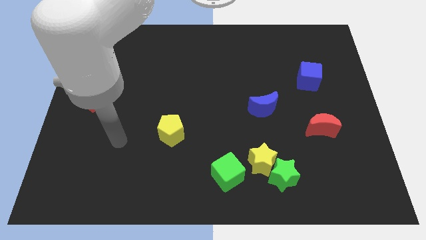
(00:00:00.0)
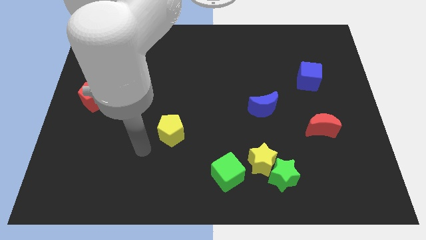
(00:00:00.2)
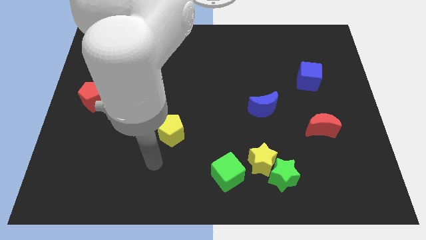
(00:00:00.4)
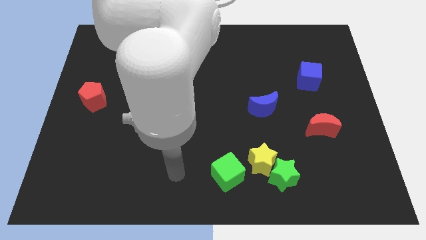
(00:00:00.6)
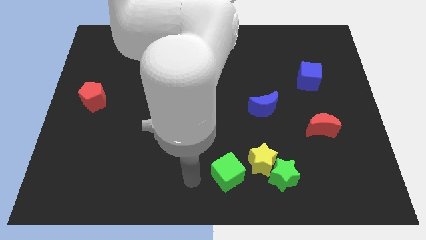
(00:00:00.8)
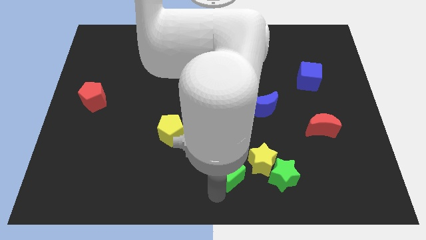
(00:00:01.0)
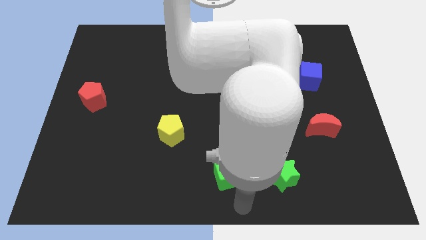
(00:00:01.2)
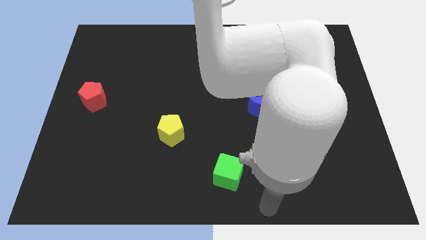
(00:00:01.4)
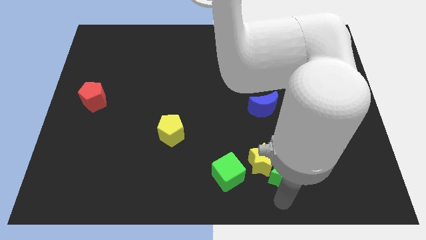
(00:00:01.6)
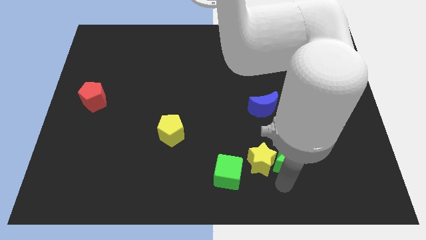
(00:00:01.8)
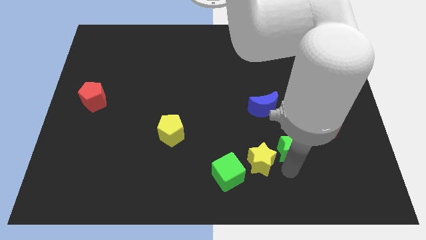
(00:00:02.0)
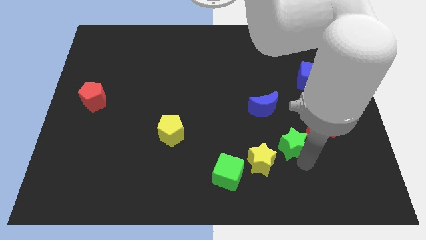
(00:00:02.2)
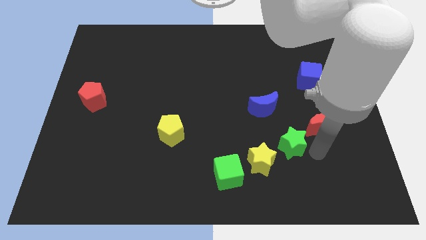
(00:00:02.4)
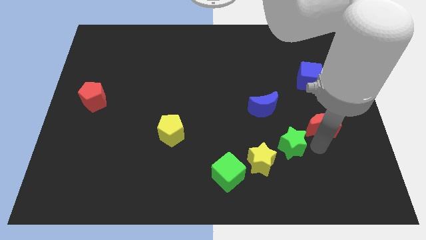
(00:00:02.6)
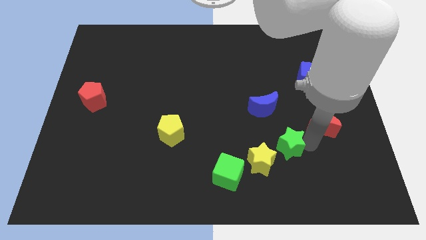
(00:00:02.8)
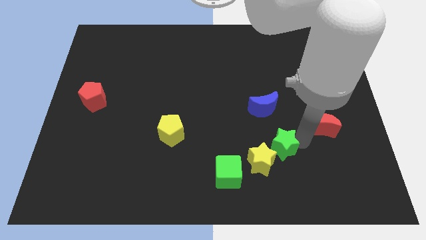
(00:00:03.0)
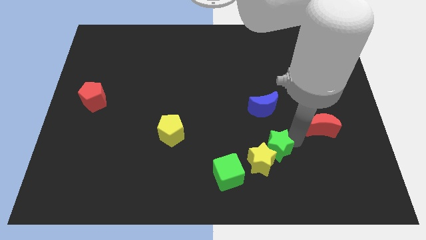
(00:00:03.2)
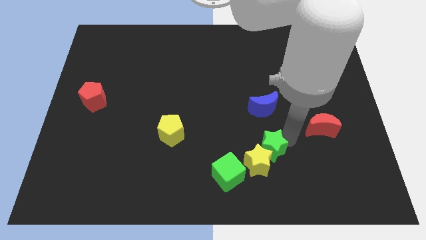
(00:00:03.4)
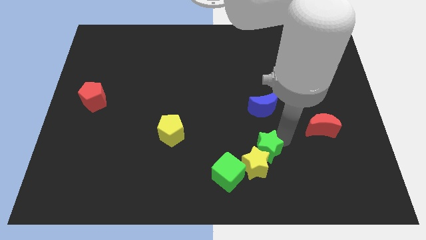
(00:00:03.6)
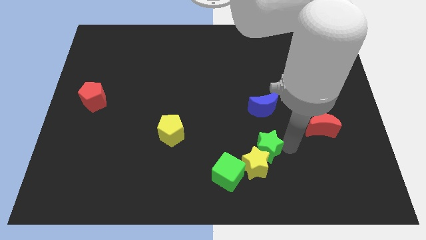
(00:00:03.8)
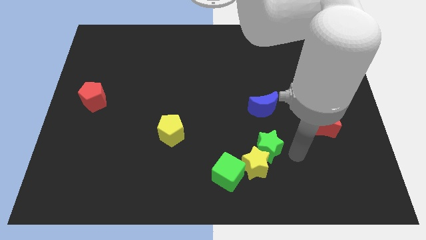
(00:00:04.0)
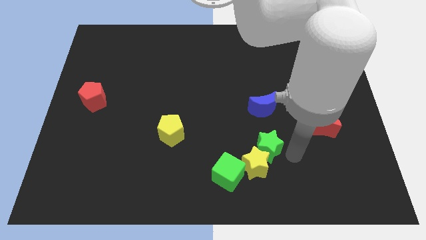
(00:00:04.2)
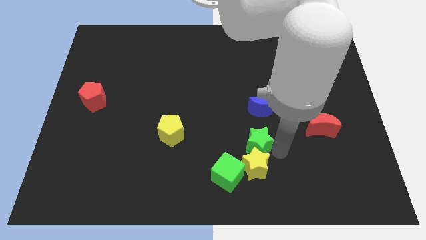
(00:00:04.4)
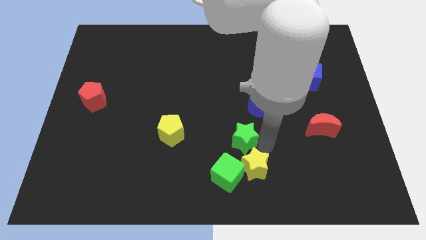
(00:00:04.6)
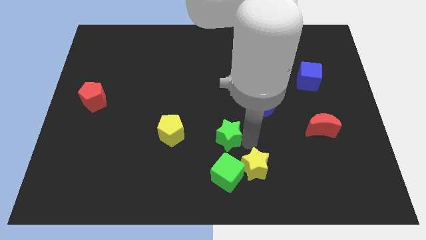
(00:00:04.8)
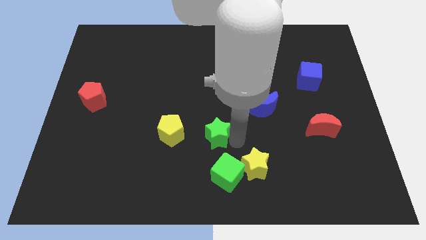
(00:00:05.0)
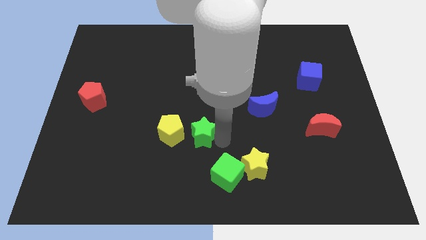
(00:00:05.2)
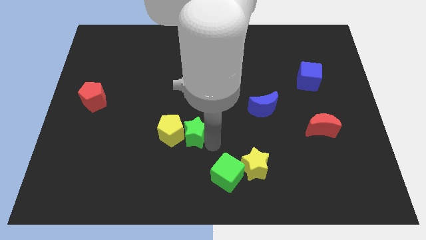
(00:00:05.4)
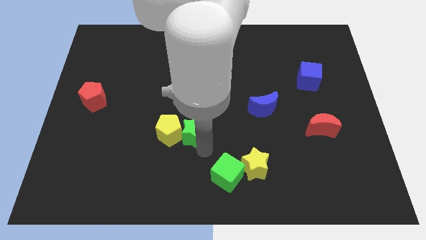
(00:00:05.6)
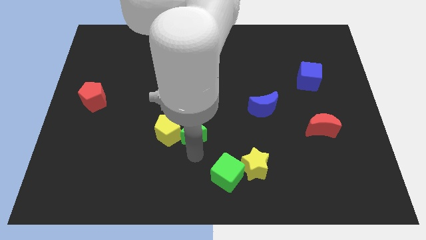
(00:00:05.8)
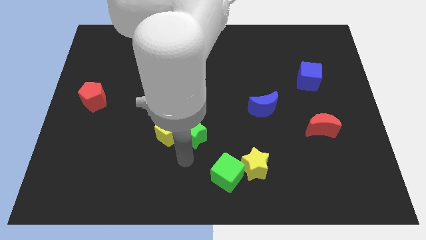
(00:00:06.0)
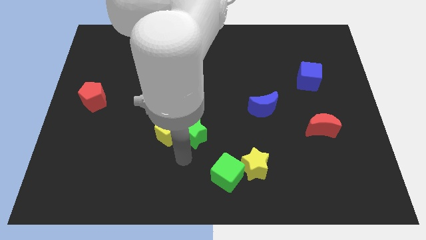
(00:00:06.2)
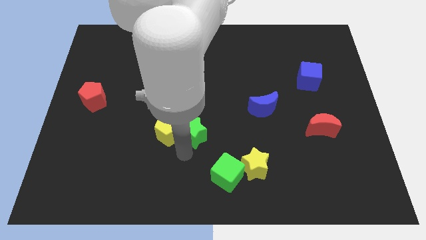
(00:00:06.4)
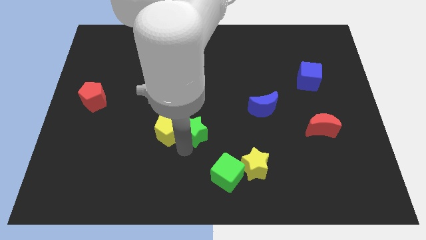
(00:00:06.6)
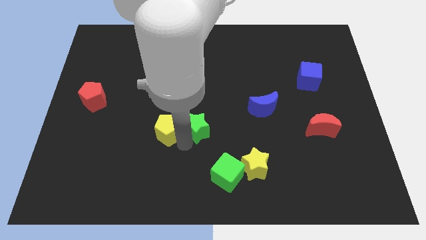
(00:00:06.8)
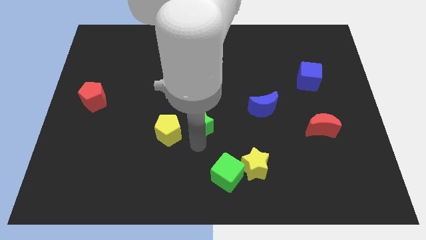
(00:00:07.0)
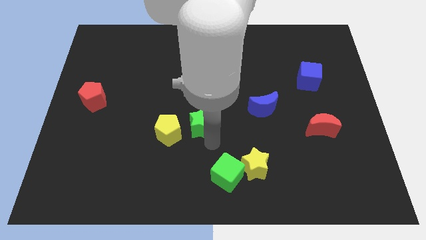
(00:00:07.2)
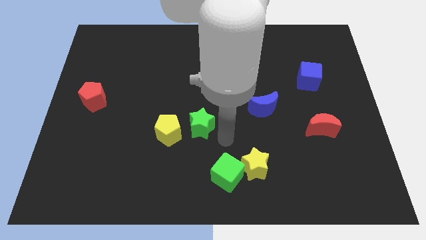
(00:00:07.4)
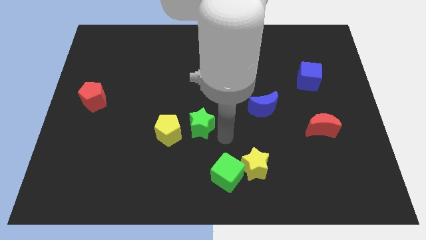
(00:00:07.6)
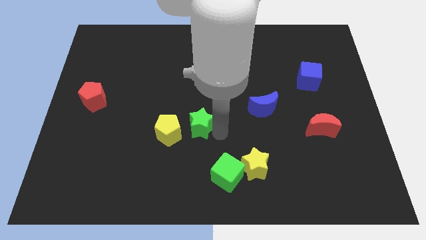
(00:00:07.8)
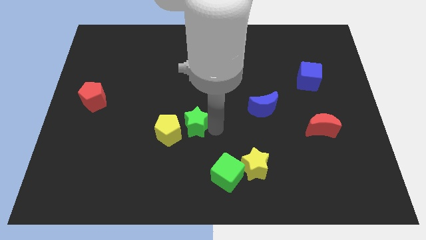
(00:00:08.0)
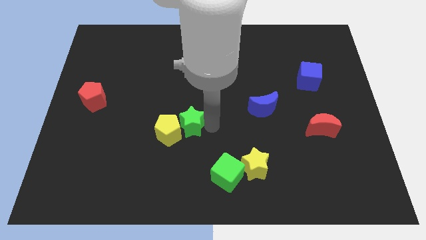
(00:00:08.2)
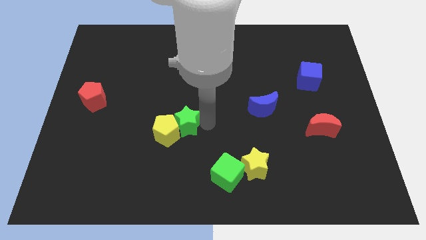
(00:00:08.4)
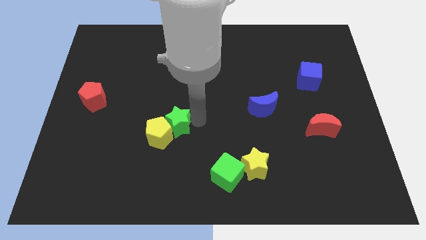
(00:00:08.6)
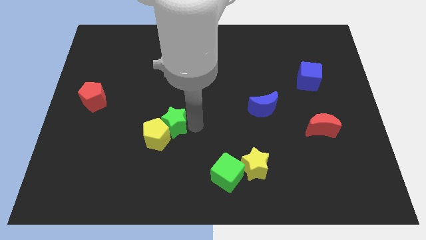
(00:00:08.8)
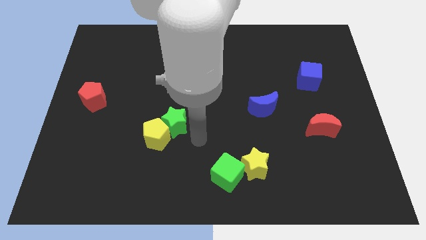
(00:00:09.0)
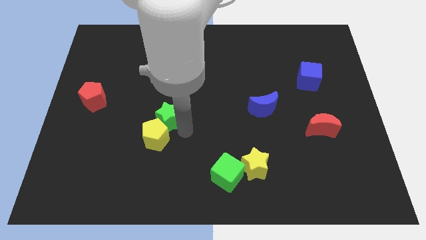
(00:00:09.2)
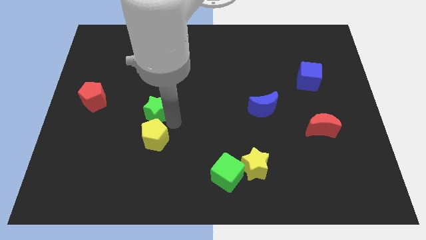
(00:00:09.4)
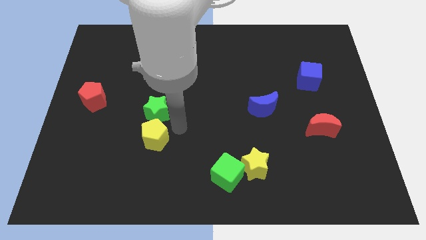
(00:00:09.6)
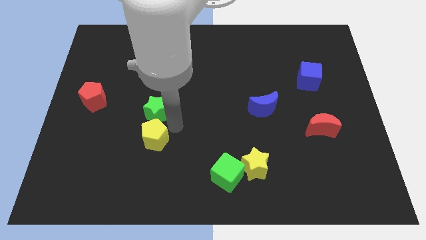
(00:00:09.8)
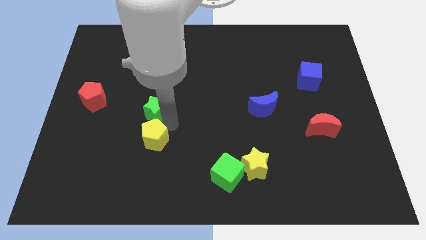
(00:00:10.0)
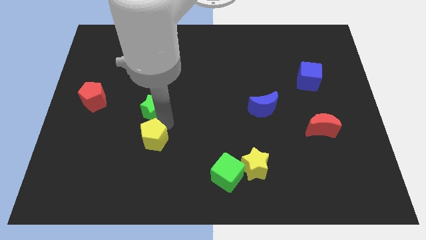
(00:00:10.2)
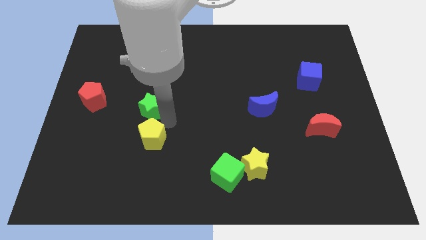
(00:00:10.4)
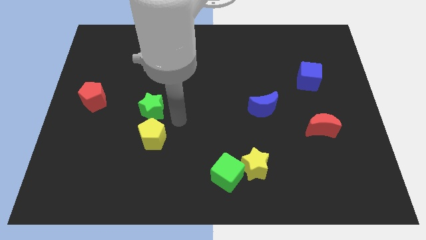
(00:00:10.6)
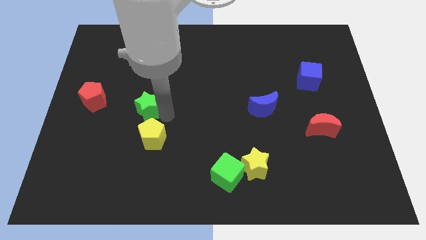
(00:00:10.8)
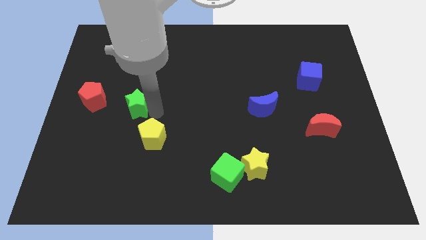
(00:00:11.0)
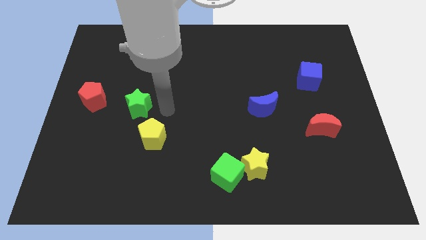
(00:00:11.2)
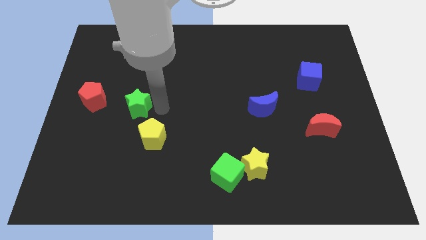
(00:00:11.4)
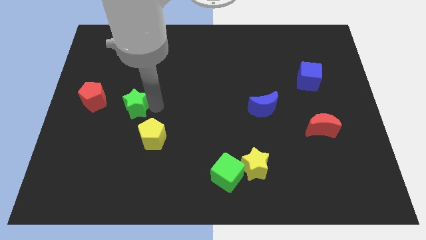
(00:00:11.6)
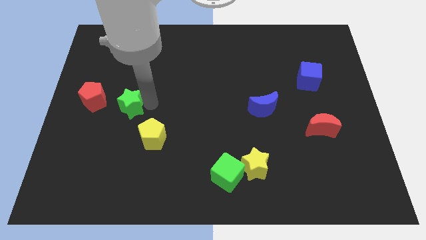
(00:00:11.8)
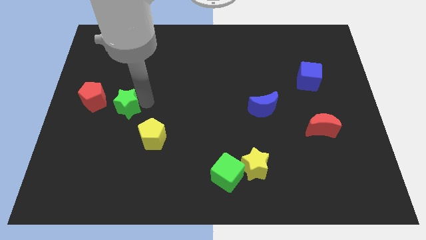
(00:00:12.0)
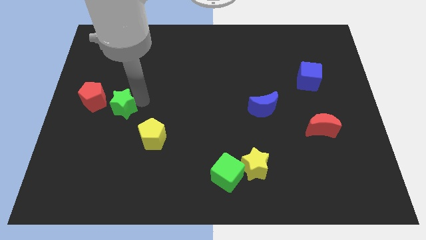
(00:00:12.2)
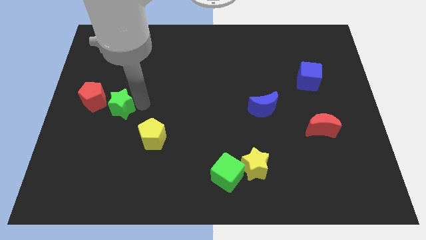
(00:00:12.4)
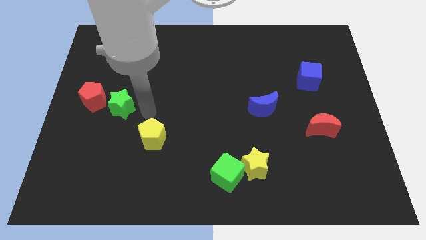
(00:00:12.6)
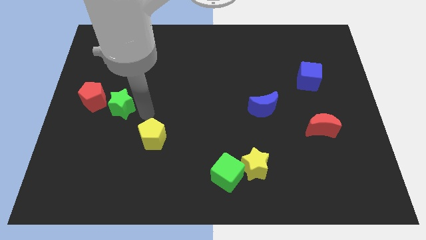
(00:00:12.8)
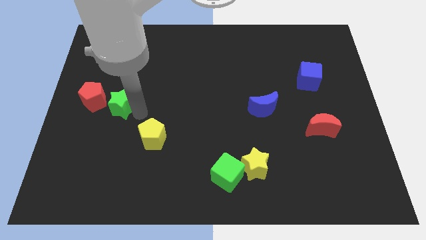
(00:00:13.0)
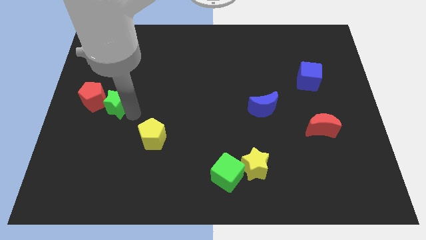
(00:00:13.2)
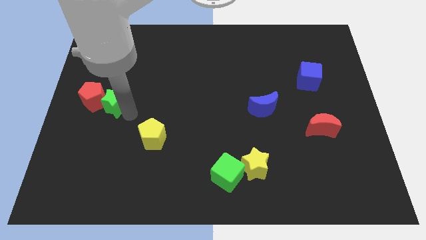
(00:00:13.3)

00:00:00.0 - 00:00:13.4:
move the green star towards the red pentagon

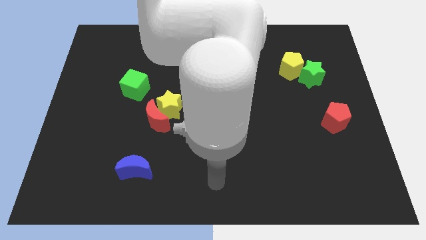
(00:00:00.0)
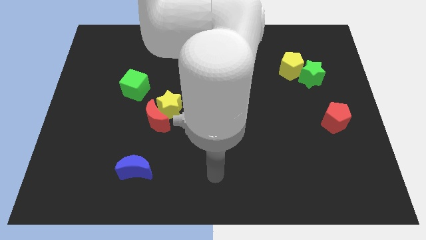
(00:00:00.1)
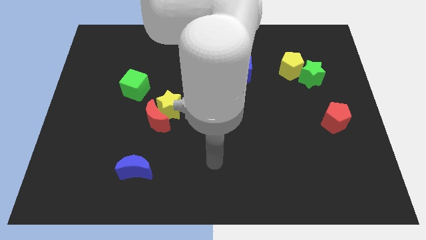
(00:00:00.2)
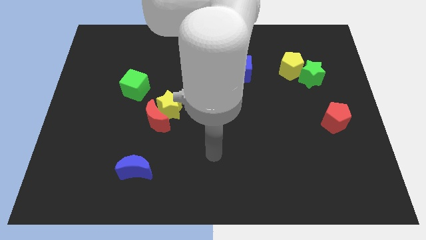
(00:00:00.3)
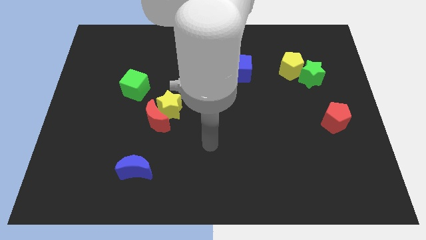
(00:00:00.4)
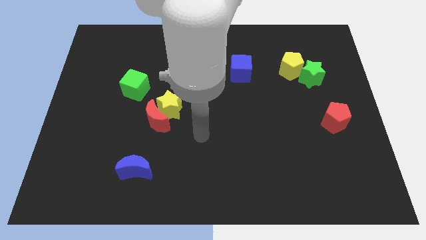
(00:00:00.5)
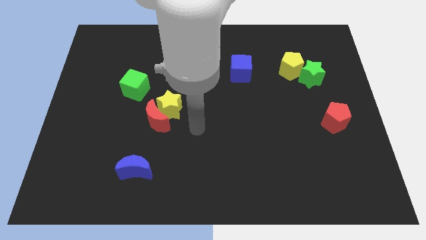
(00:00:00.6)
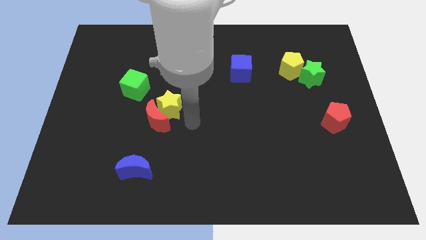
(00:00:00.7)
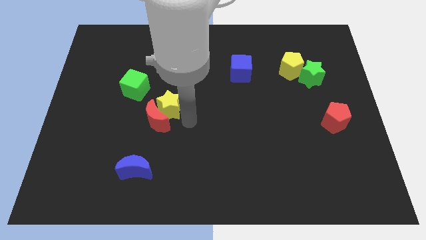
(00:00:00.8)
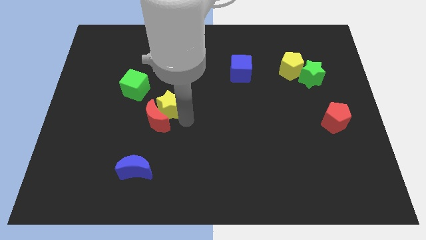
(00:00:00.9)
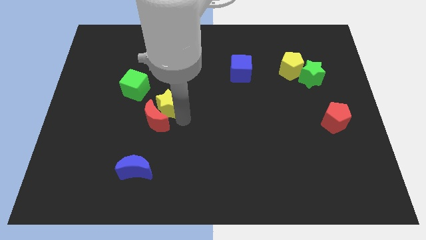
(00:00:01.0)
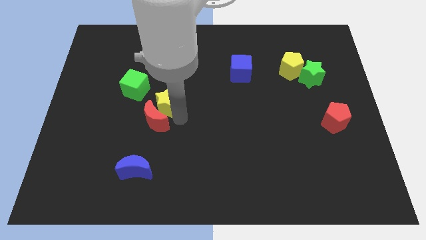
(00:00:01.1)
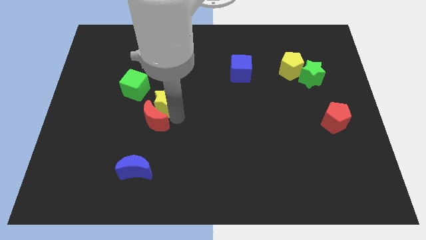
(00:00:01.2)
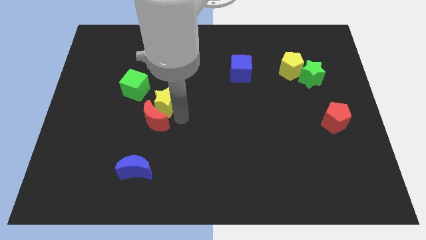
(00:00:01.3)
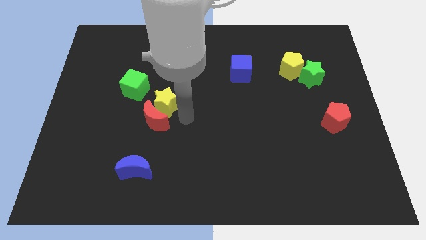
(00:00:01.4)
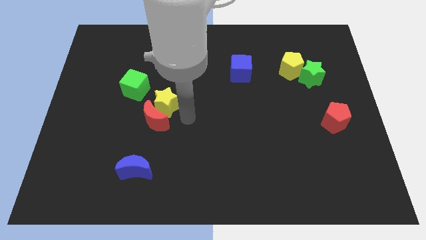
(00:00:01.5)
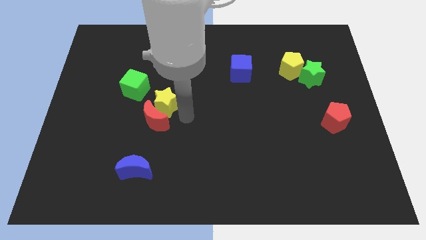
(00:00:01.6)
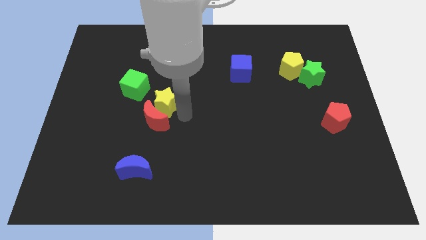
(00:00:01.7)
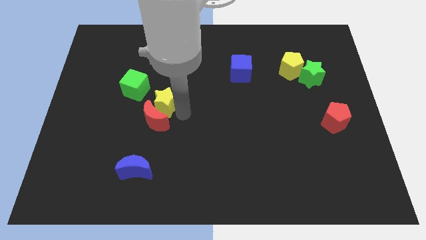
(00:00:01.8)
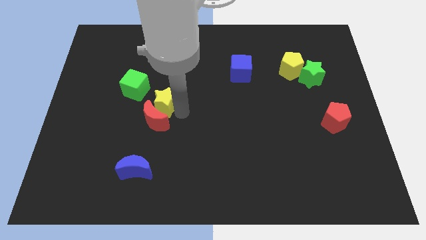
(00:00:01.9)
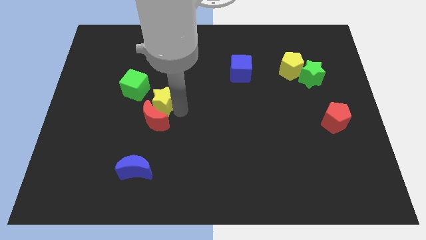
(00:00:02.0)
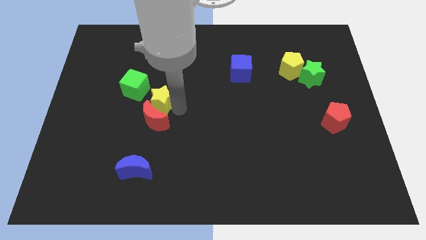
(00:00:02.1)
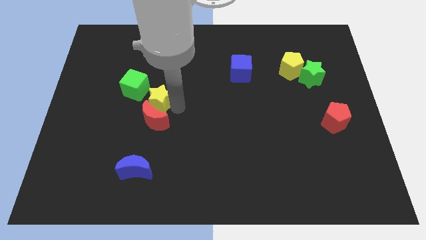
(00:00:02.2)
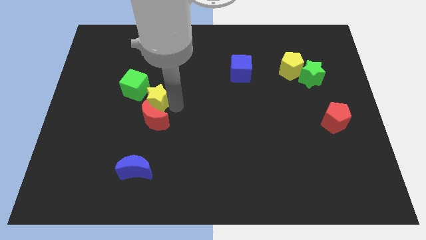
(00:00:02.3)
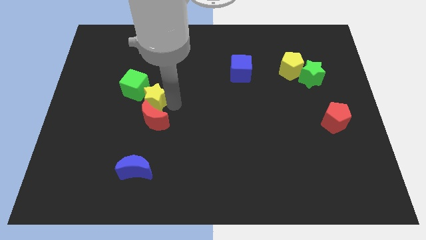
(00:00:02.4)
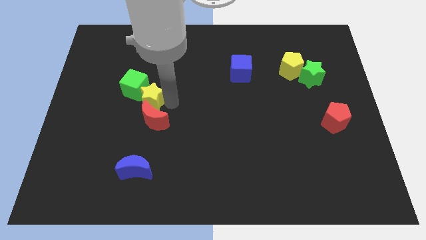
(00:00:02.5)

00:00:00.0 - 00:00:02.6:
push the yellow star close to the green cube
